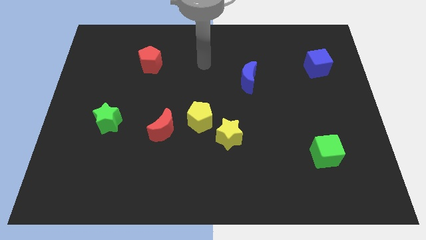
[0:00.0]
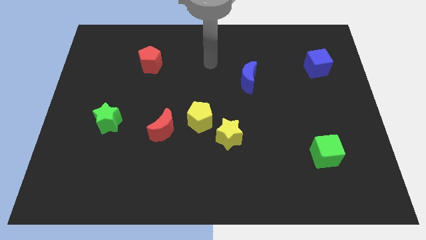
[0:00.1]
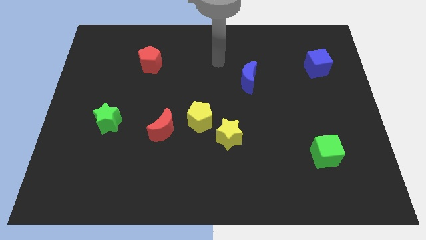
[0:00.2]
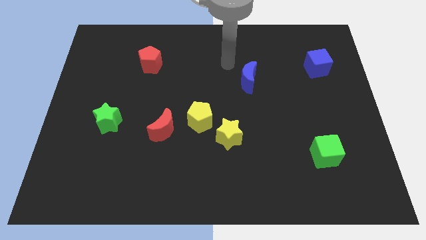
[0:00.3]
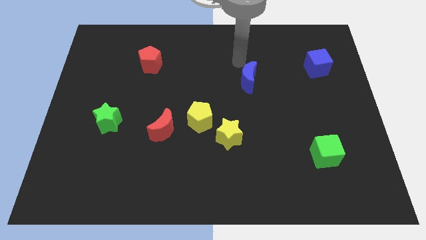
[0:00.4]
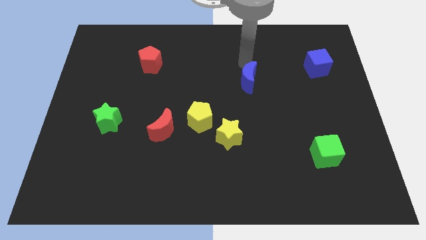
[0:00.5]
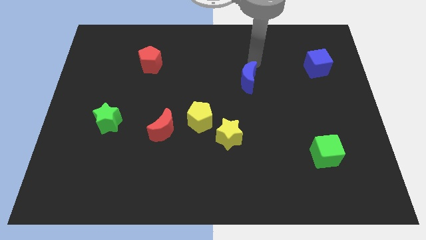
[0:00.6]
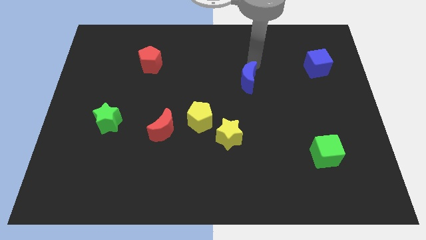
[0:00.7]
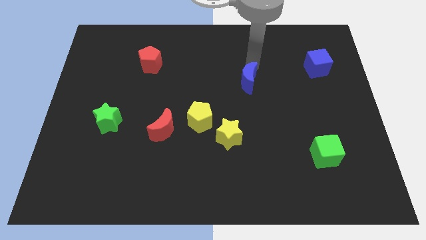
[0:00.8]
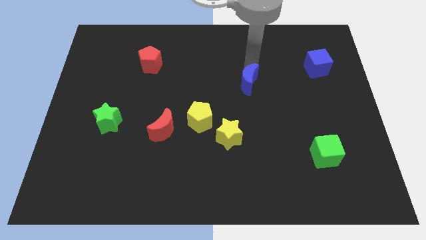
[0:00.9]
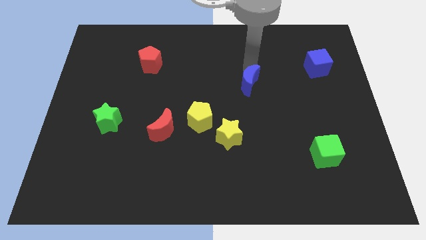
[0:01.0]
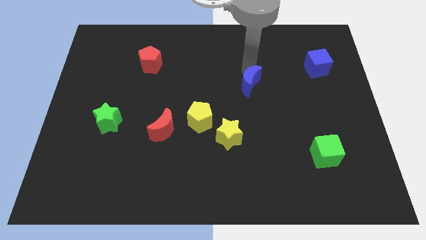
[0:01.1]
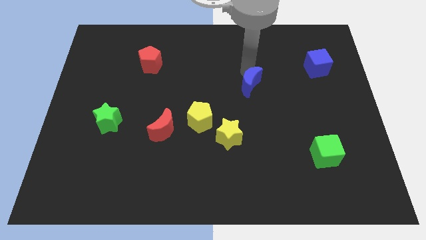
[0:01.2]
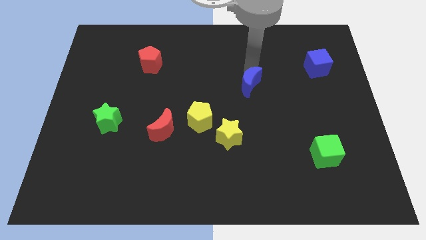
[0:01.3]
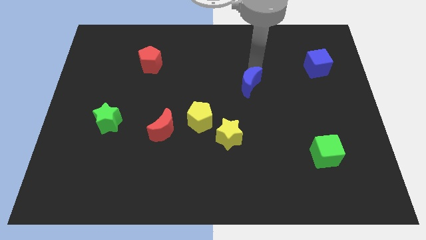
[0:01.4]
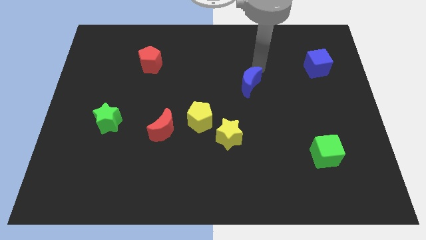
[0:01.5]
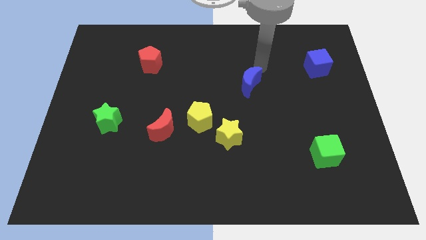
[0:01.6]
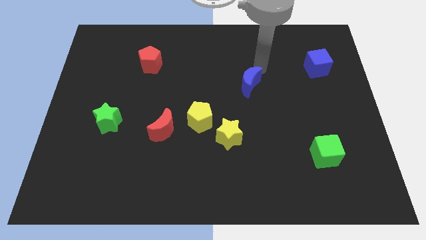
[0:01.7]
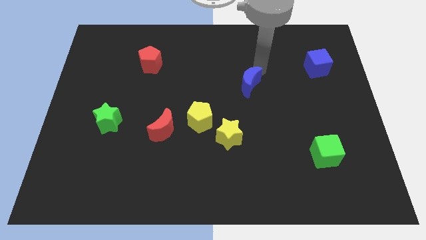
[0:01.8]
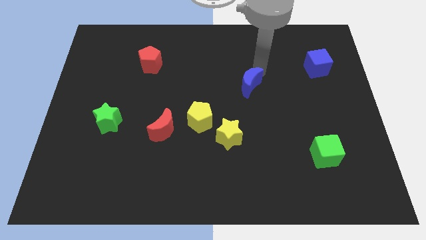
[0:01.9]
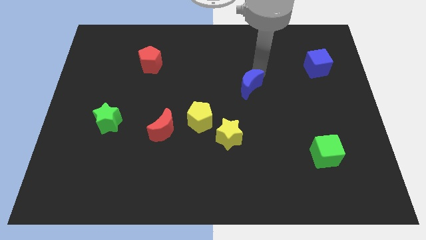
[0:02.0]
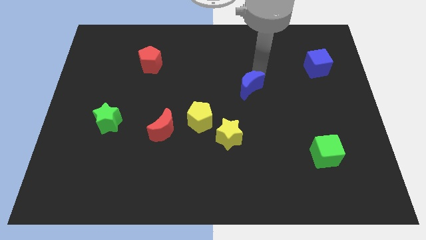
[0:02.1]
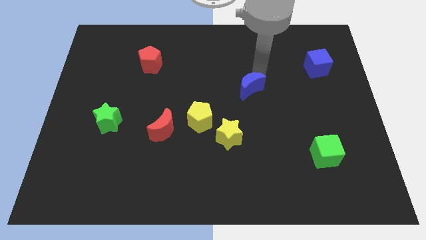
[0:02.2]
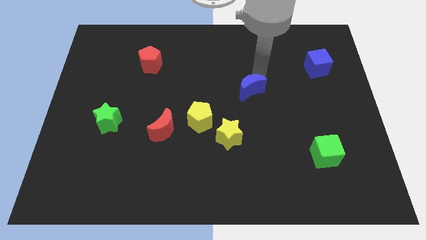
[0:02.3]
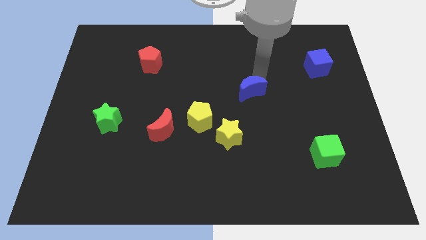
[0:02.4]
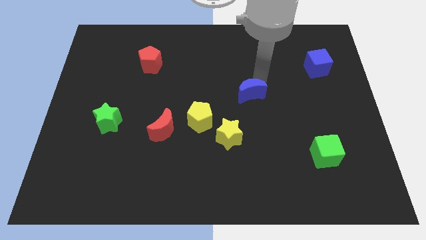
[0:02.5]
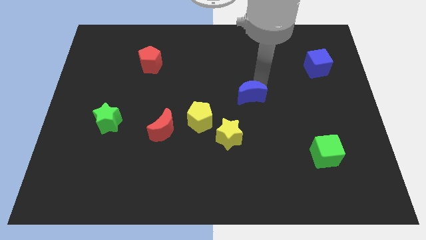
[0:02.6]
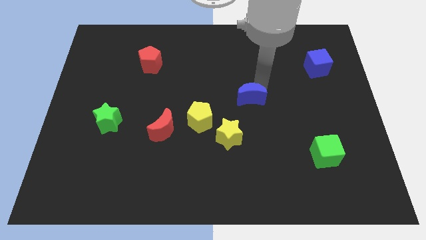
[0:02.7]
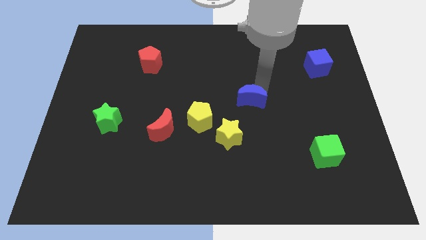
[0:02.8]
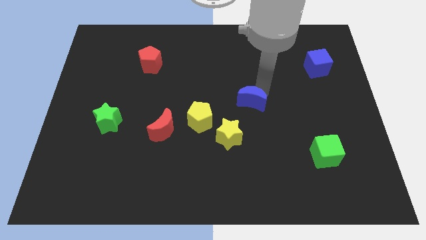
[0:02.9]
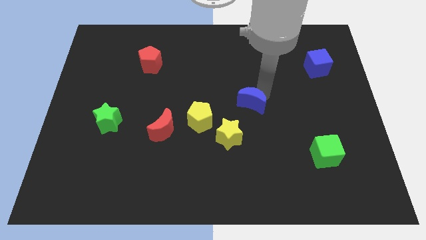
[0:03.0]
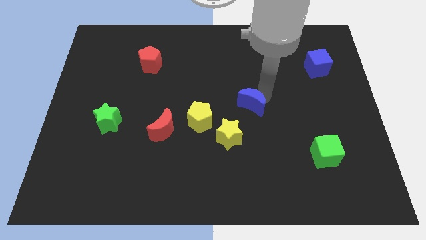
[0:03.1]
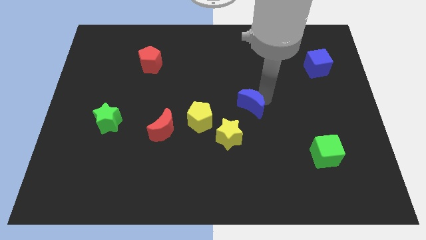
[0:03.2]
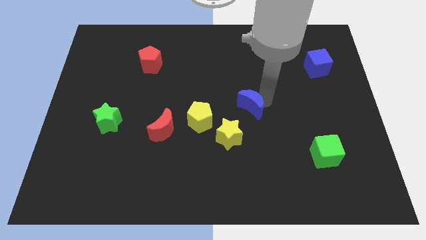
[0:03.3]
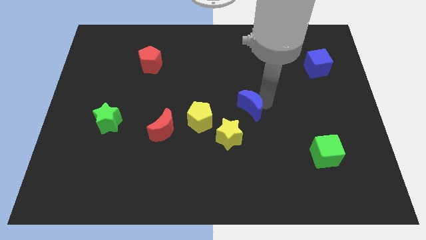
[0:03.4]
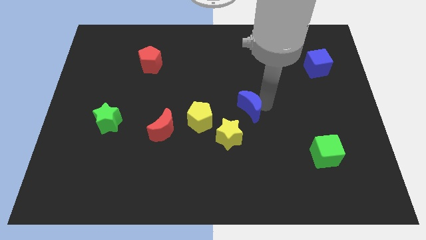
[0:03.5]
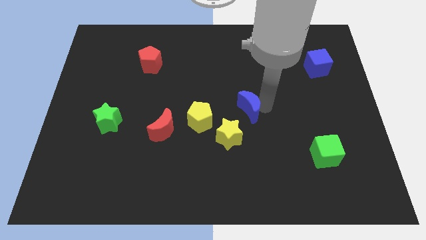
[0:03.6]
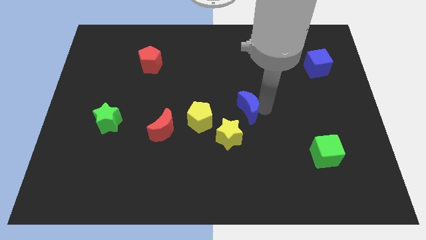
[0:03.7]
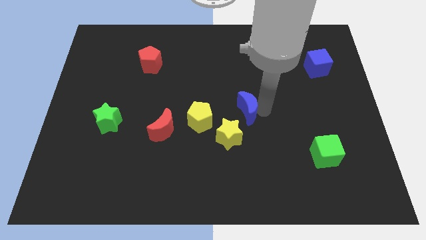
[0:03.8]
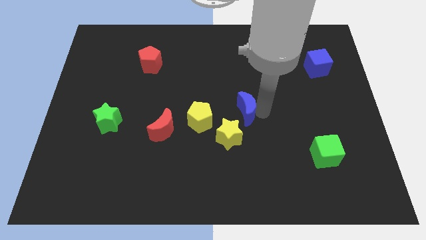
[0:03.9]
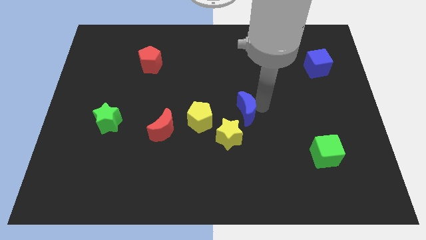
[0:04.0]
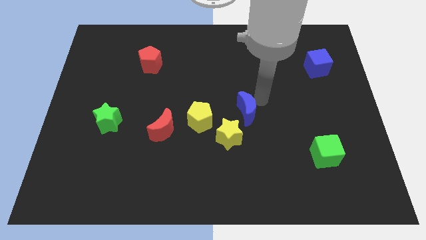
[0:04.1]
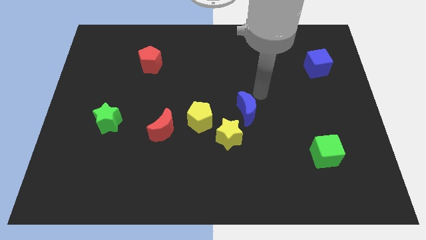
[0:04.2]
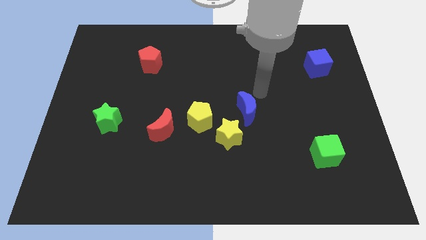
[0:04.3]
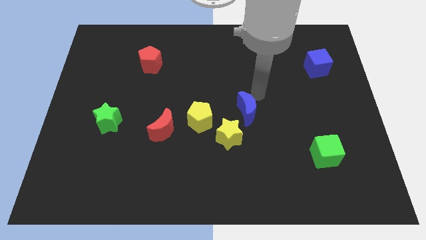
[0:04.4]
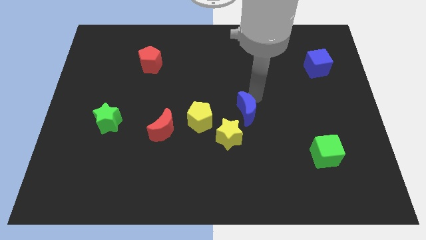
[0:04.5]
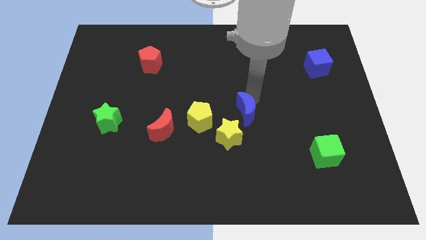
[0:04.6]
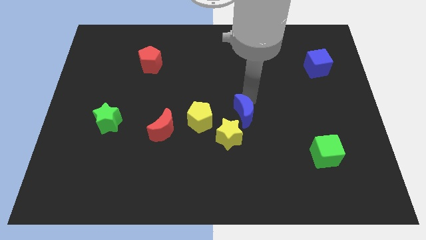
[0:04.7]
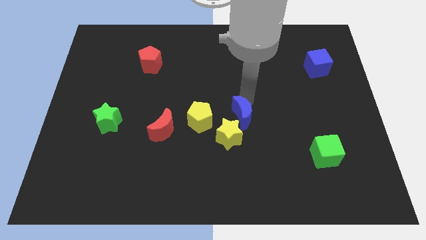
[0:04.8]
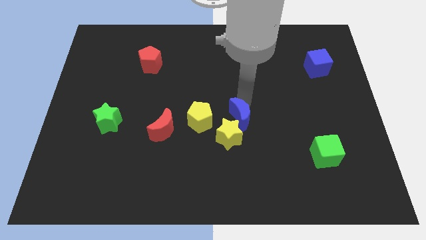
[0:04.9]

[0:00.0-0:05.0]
move the blue moon towards the yellow star

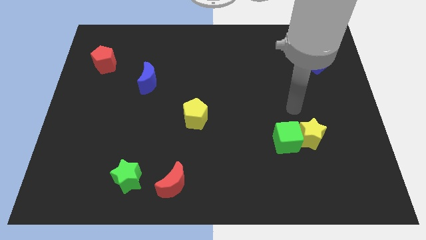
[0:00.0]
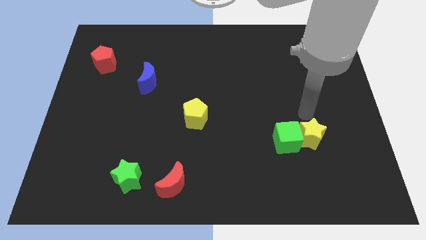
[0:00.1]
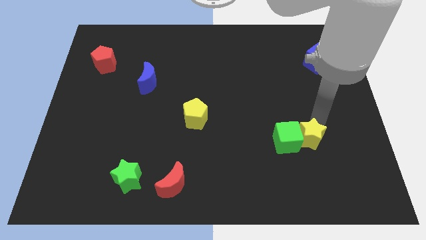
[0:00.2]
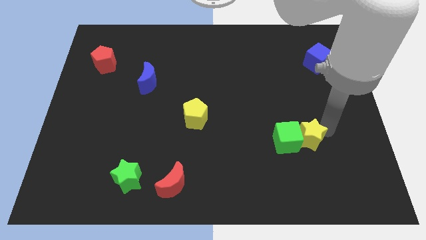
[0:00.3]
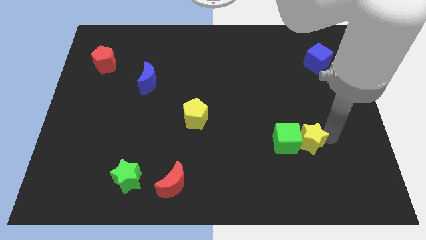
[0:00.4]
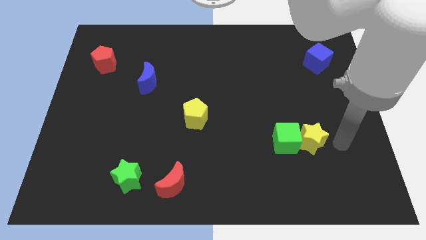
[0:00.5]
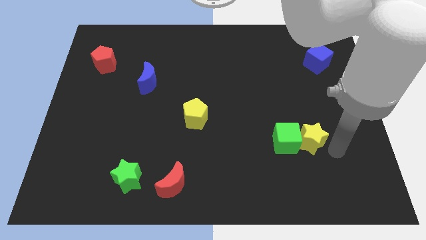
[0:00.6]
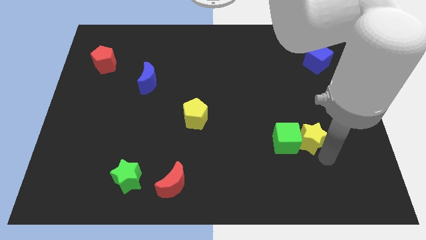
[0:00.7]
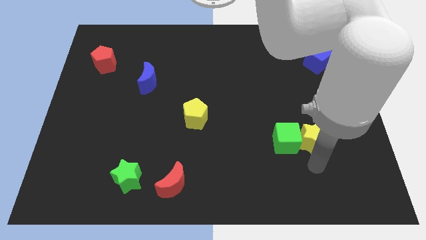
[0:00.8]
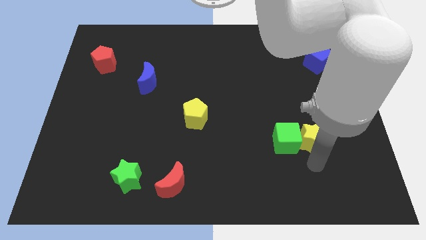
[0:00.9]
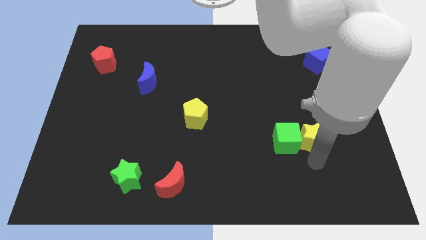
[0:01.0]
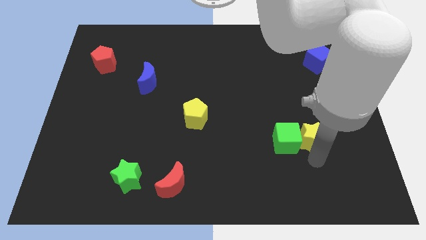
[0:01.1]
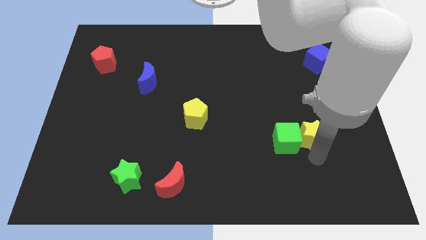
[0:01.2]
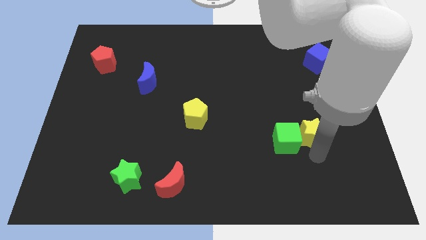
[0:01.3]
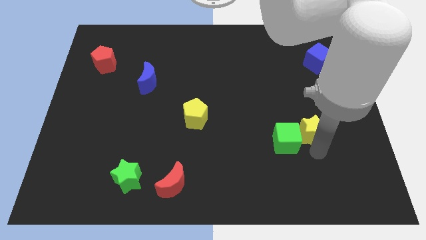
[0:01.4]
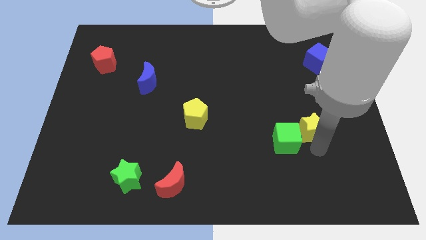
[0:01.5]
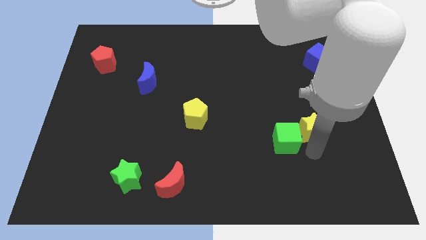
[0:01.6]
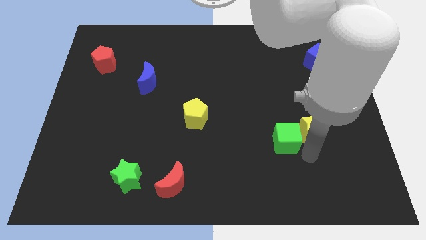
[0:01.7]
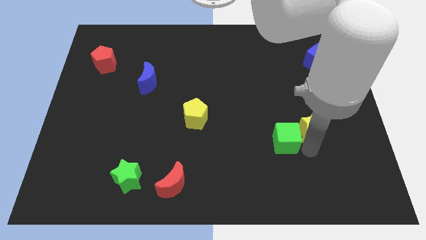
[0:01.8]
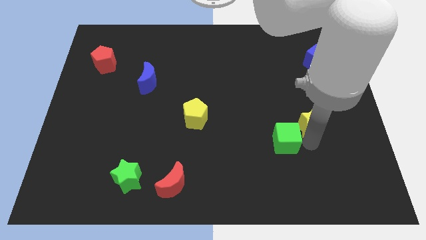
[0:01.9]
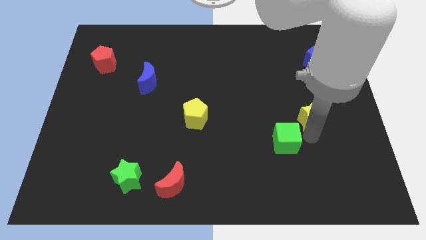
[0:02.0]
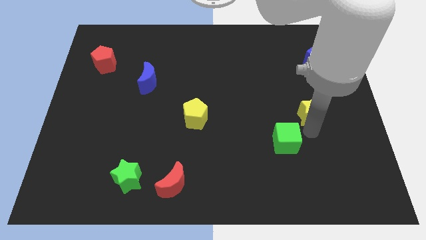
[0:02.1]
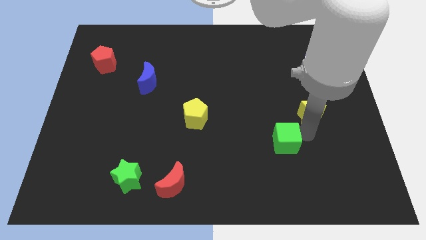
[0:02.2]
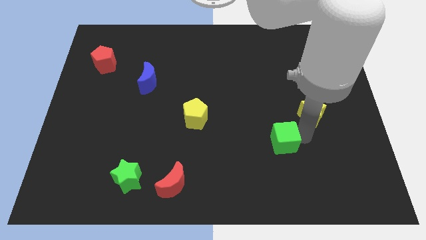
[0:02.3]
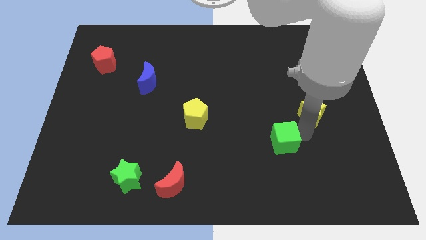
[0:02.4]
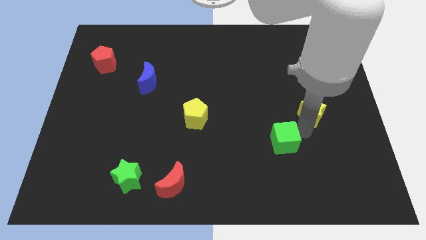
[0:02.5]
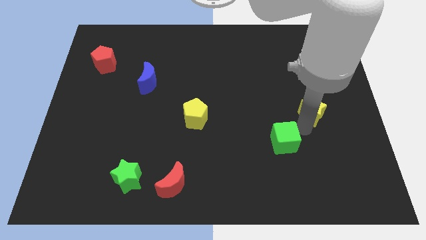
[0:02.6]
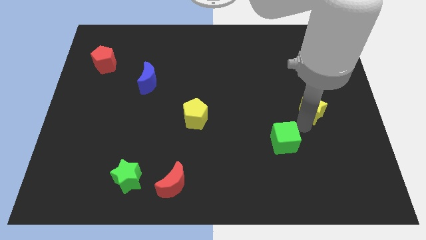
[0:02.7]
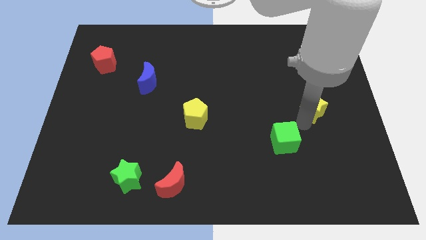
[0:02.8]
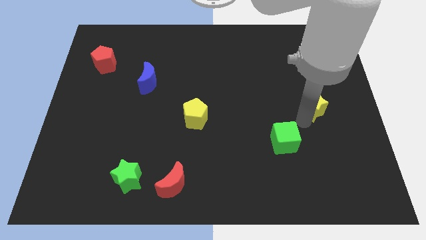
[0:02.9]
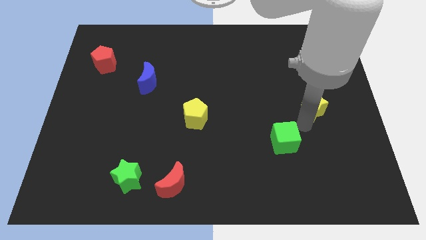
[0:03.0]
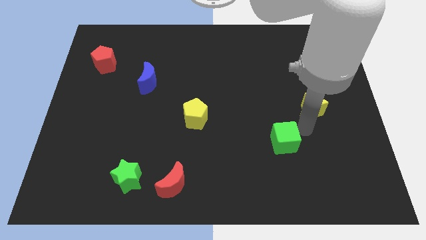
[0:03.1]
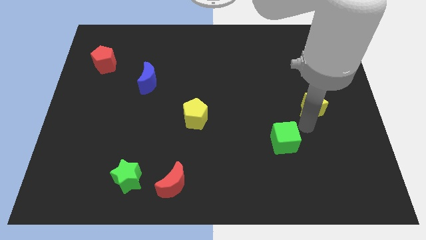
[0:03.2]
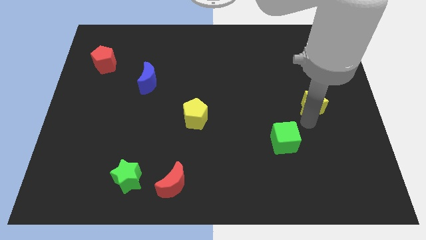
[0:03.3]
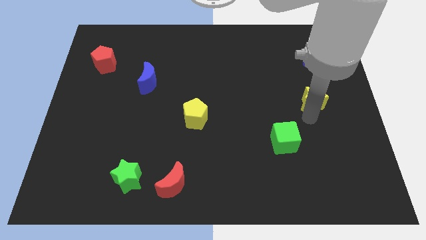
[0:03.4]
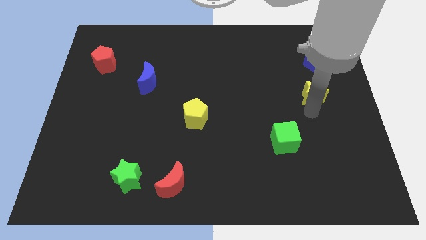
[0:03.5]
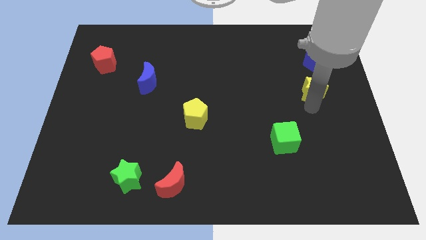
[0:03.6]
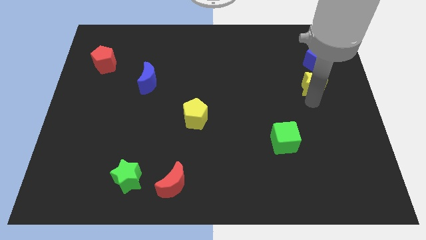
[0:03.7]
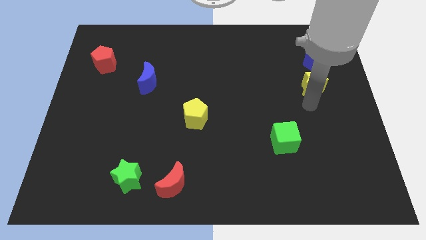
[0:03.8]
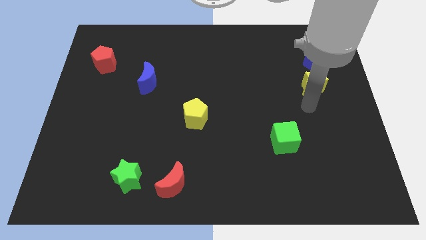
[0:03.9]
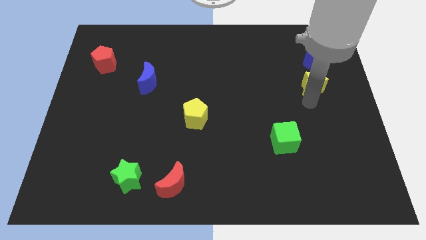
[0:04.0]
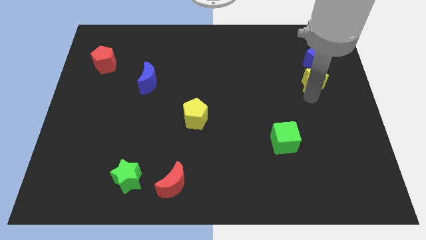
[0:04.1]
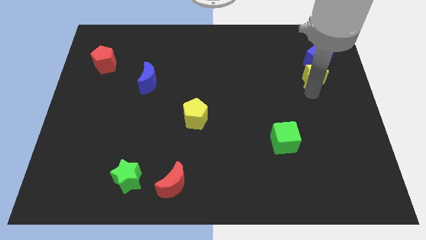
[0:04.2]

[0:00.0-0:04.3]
move the yellow star close to the blue cube
